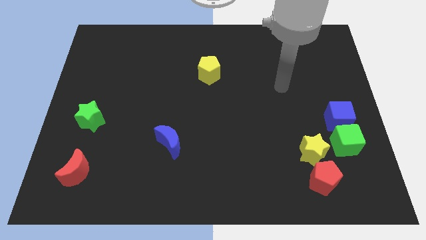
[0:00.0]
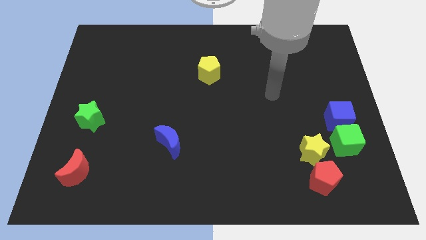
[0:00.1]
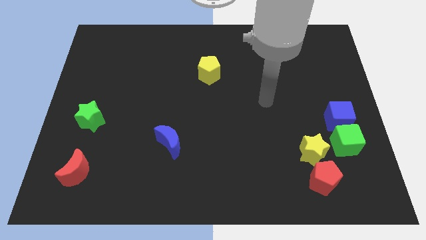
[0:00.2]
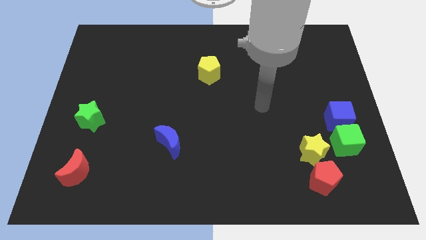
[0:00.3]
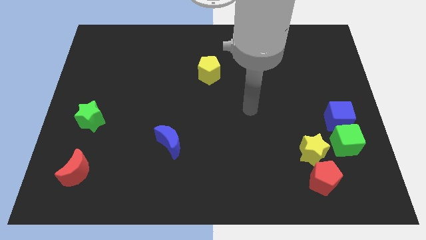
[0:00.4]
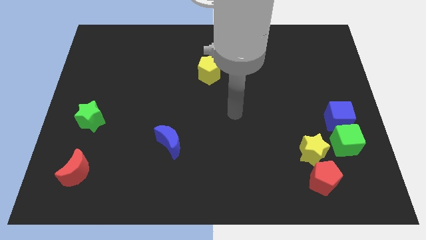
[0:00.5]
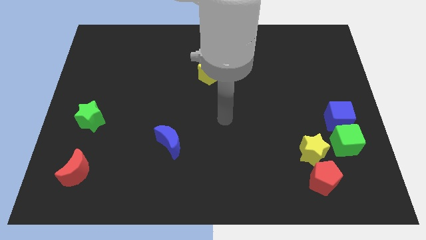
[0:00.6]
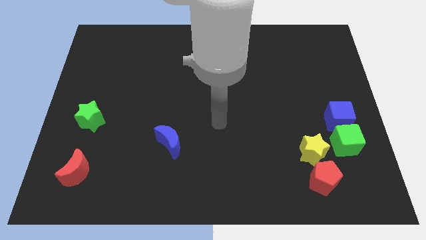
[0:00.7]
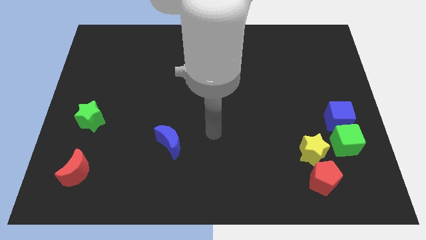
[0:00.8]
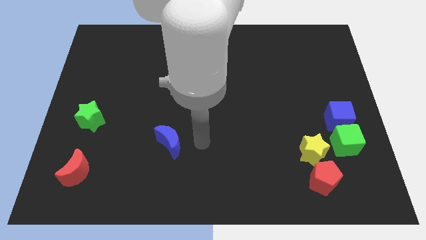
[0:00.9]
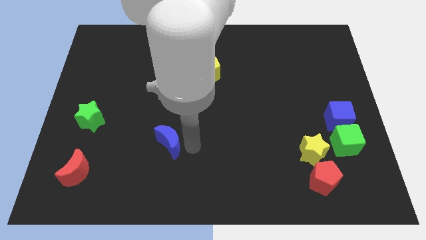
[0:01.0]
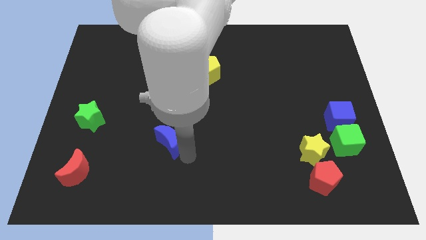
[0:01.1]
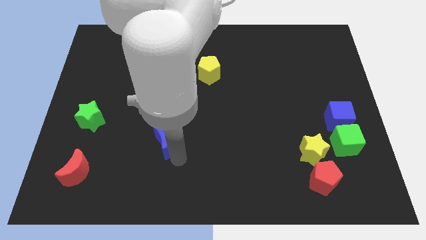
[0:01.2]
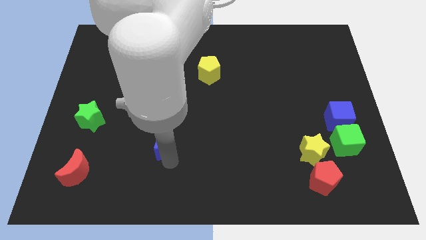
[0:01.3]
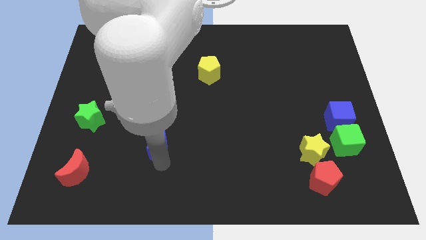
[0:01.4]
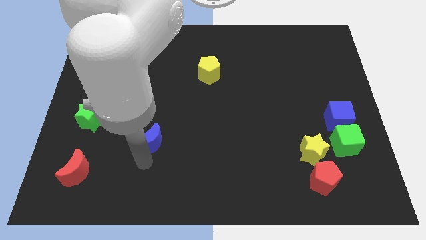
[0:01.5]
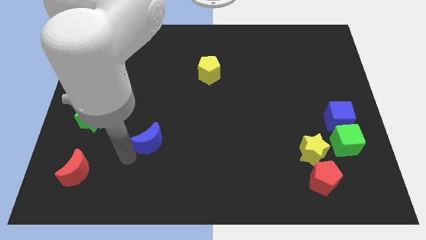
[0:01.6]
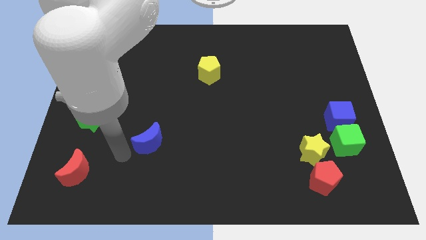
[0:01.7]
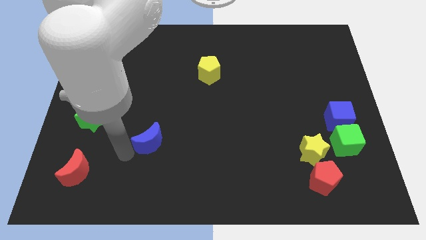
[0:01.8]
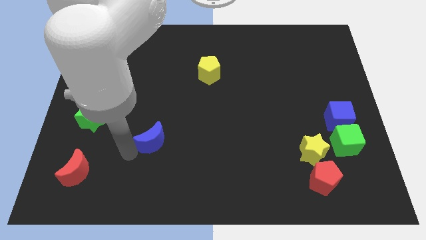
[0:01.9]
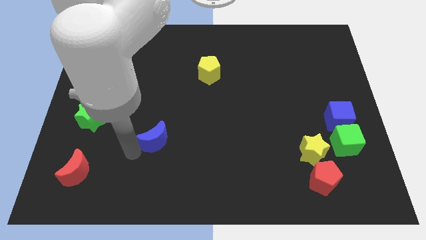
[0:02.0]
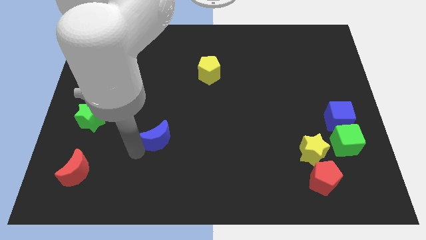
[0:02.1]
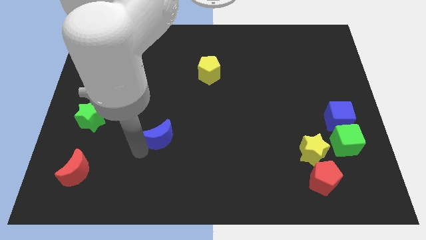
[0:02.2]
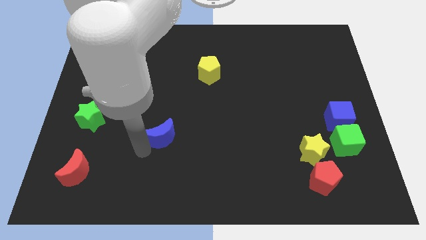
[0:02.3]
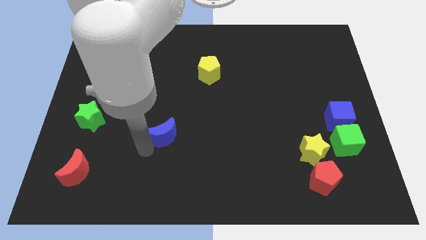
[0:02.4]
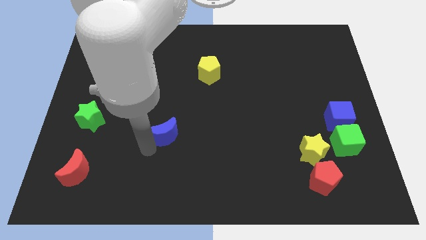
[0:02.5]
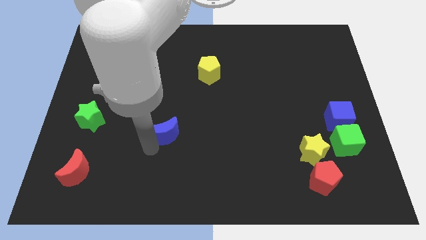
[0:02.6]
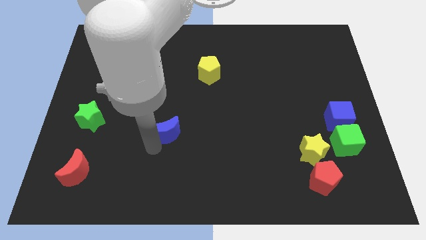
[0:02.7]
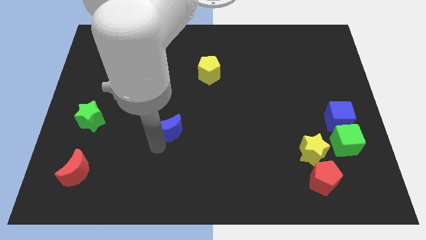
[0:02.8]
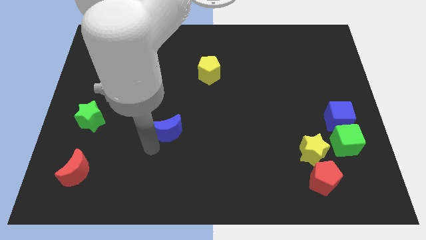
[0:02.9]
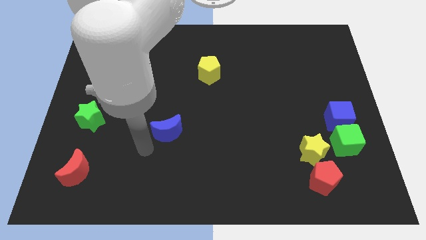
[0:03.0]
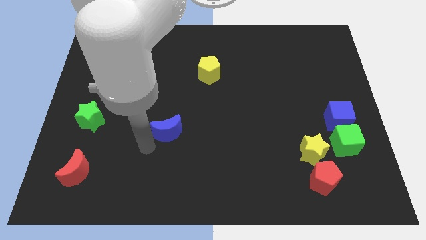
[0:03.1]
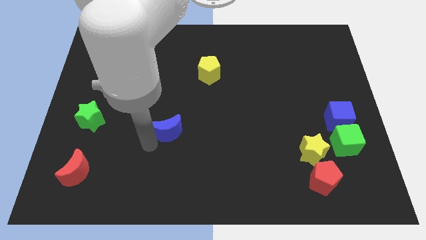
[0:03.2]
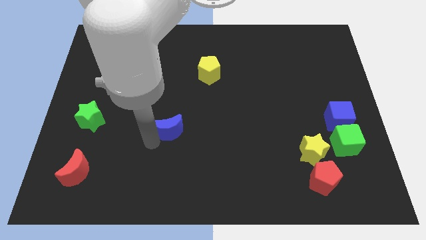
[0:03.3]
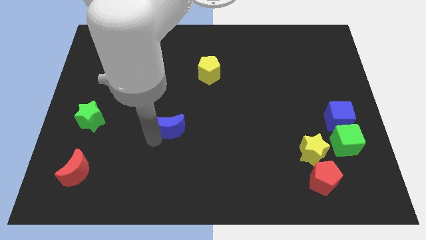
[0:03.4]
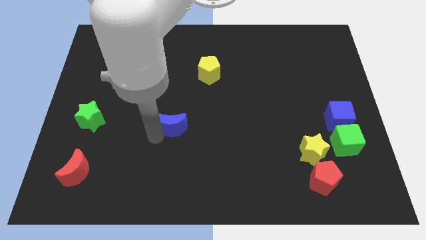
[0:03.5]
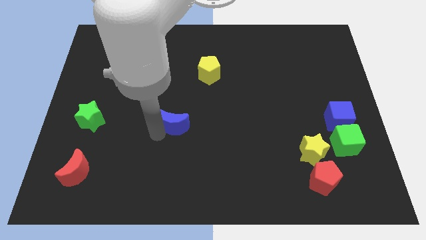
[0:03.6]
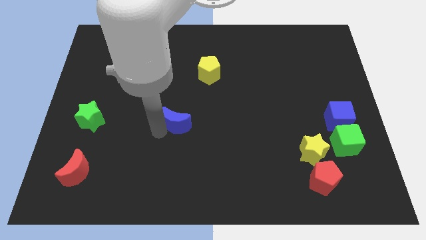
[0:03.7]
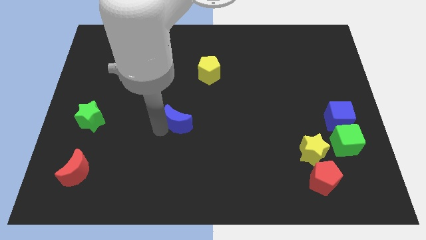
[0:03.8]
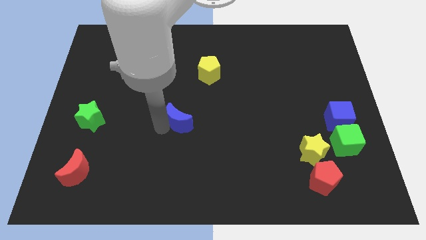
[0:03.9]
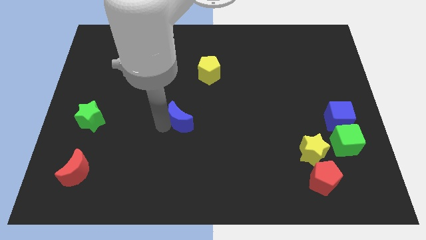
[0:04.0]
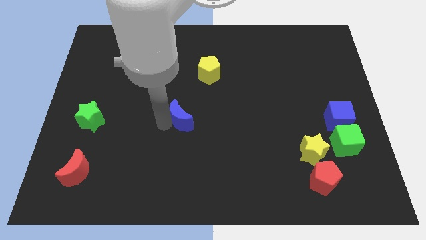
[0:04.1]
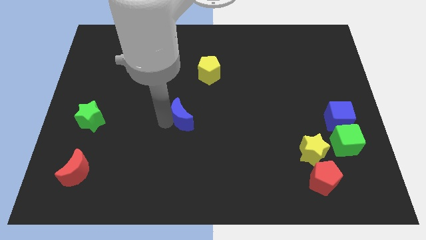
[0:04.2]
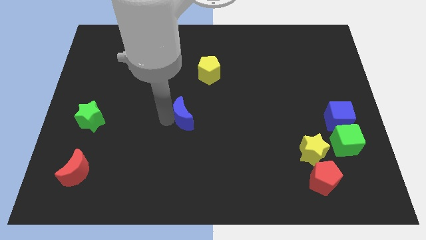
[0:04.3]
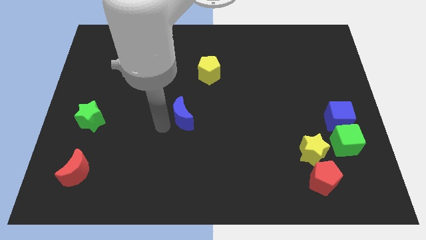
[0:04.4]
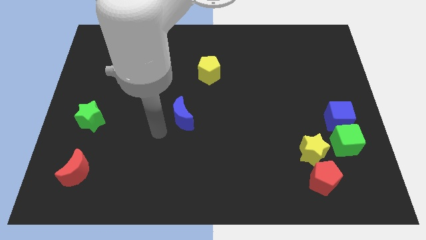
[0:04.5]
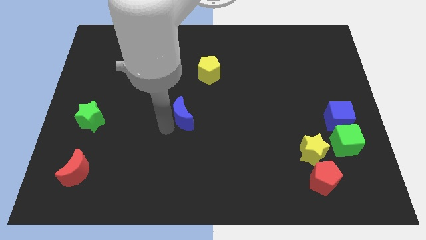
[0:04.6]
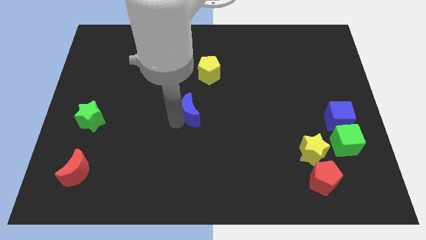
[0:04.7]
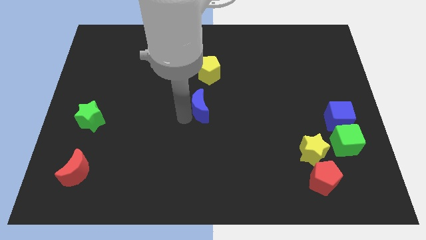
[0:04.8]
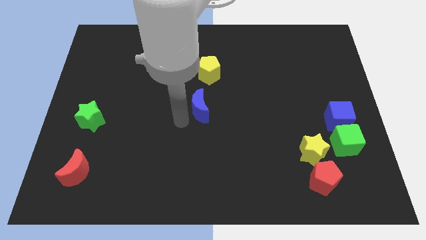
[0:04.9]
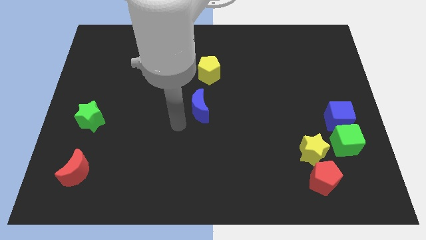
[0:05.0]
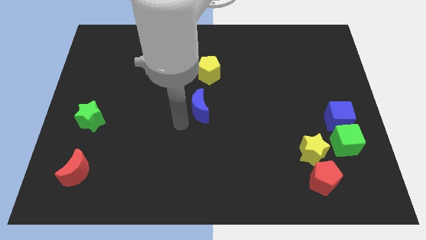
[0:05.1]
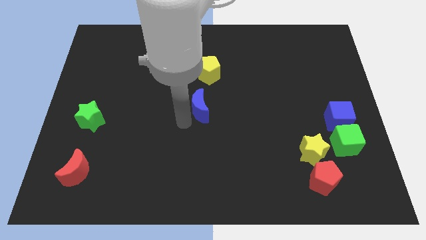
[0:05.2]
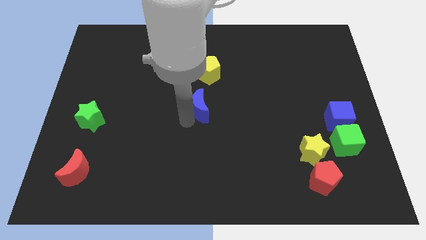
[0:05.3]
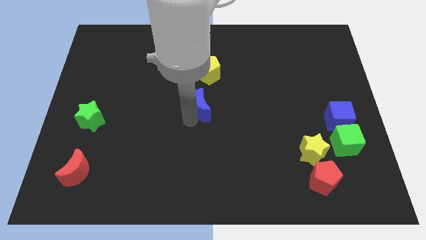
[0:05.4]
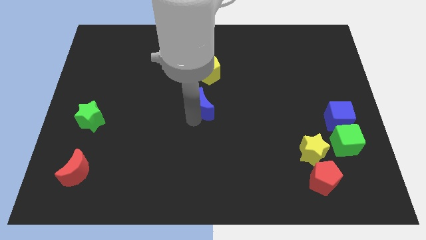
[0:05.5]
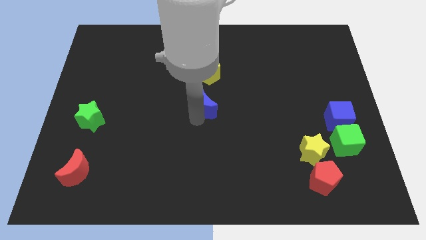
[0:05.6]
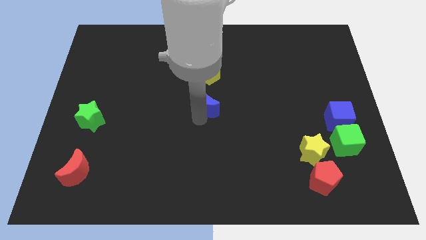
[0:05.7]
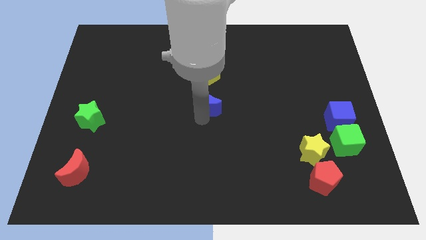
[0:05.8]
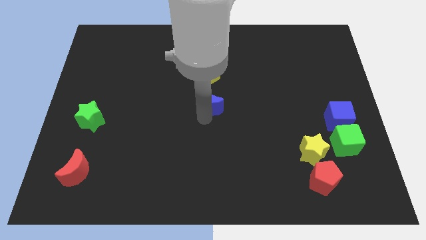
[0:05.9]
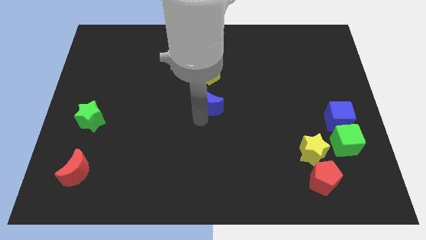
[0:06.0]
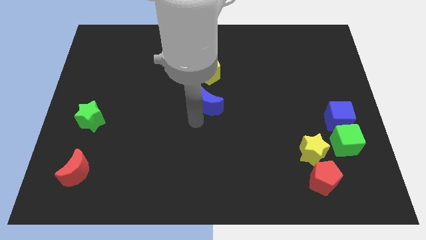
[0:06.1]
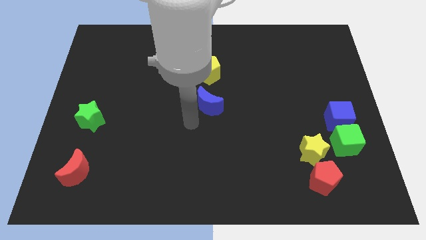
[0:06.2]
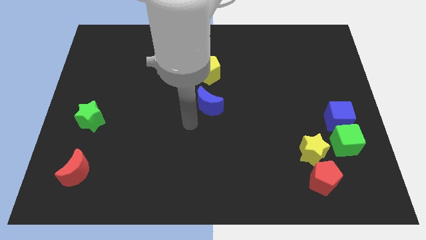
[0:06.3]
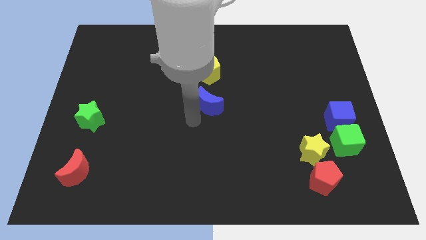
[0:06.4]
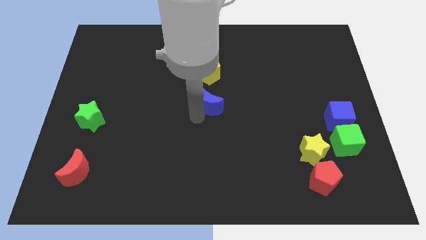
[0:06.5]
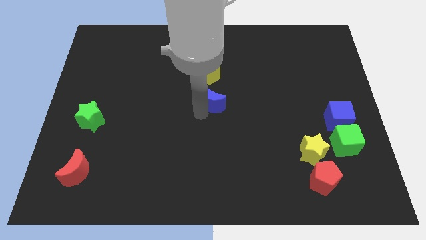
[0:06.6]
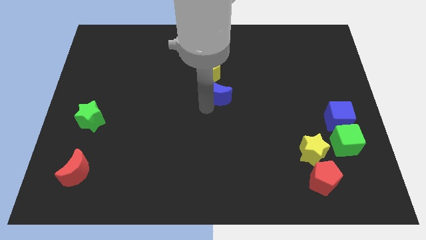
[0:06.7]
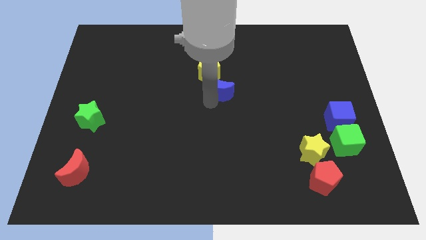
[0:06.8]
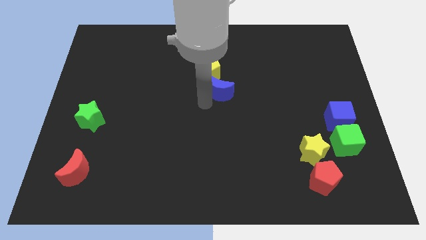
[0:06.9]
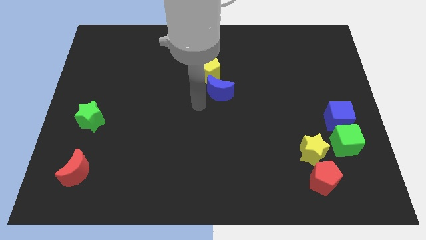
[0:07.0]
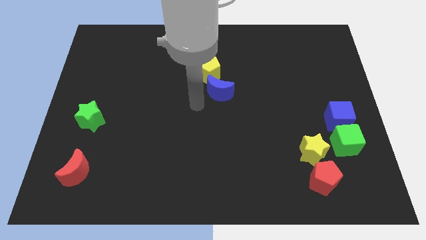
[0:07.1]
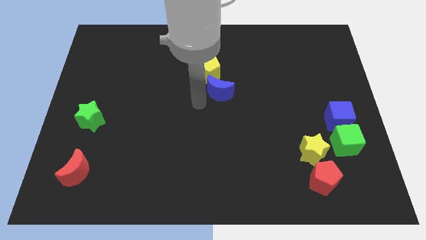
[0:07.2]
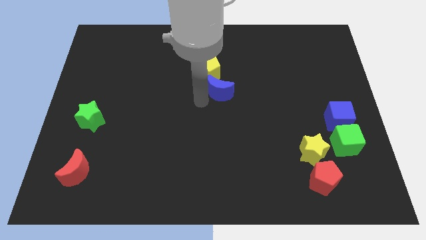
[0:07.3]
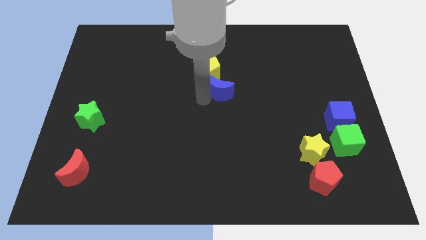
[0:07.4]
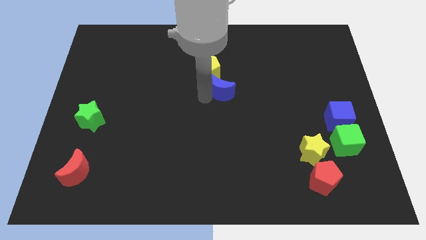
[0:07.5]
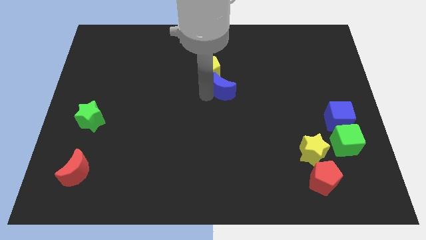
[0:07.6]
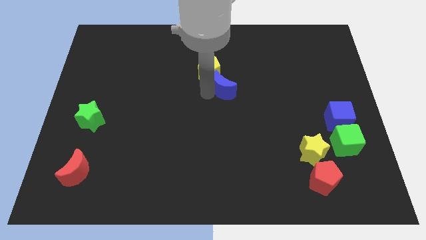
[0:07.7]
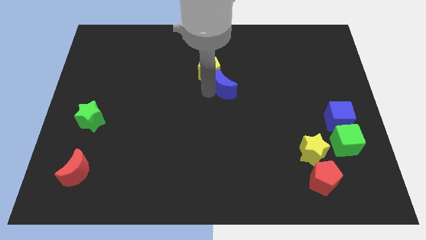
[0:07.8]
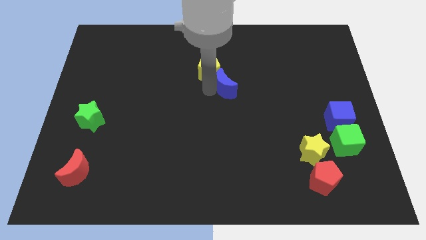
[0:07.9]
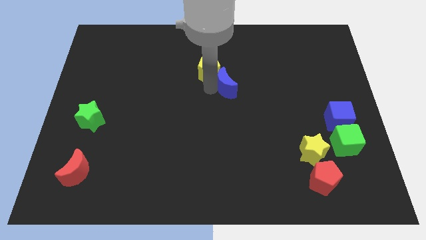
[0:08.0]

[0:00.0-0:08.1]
put the blue moon right of the yellow pentagon
